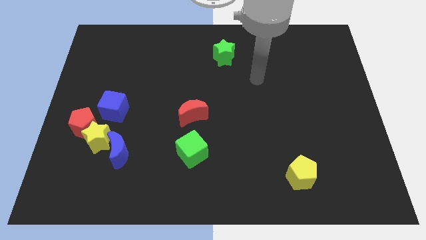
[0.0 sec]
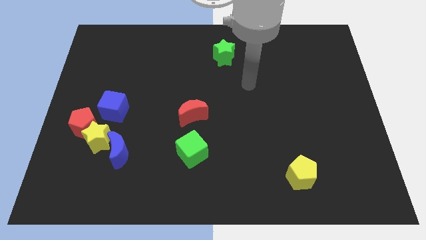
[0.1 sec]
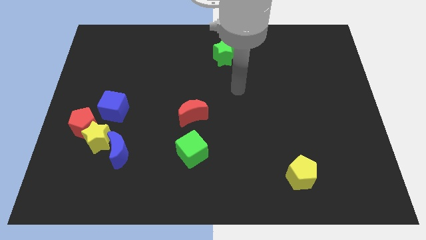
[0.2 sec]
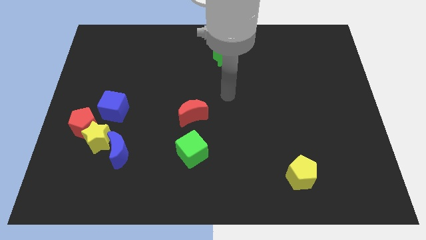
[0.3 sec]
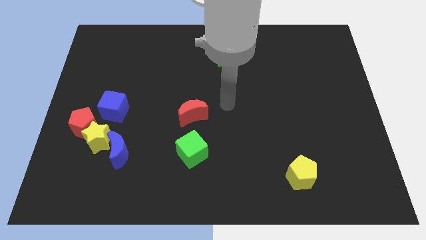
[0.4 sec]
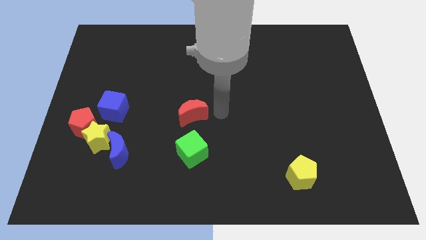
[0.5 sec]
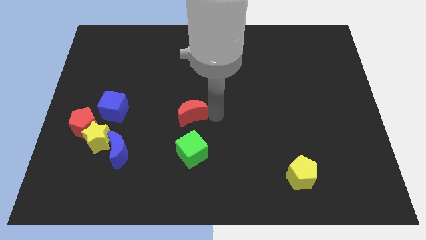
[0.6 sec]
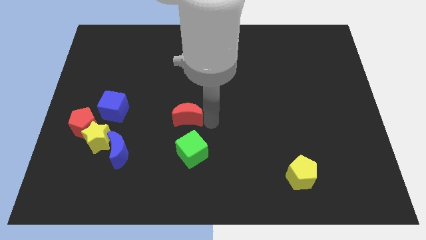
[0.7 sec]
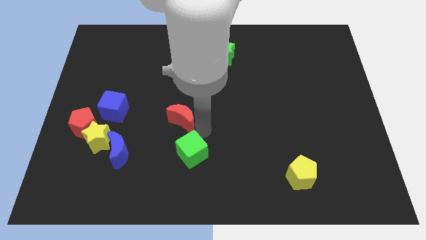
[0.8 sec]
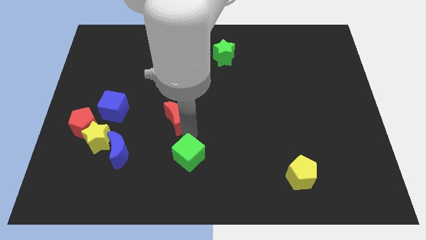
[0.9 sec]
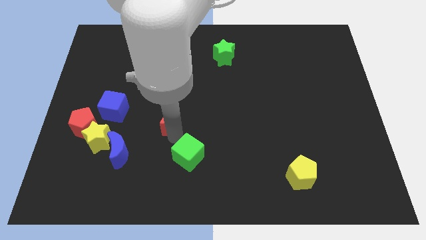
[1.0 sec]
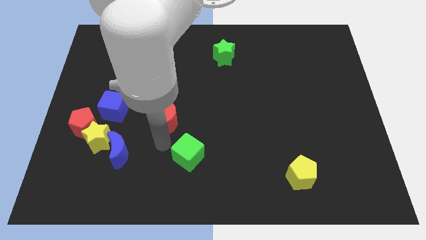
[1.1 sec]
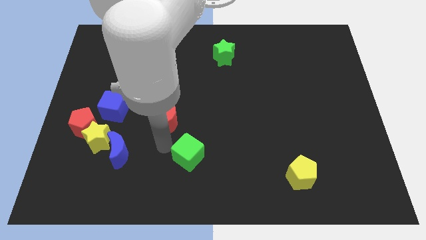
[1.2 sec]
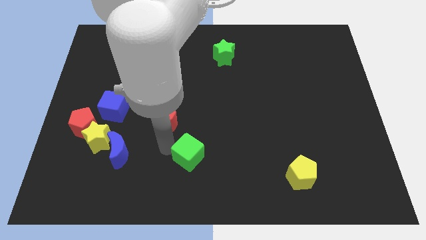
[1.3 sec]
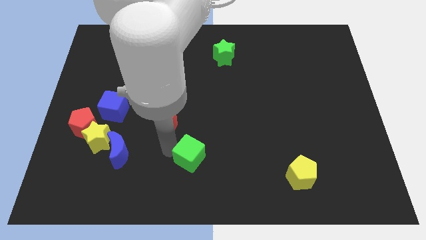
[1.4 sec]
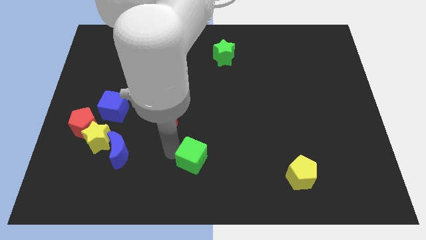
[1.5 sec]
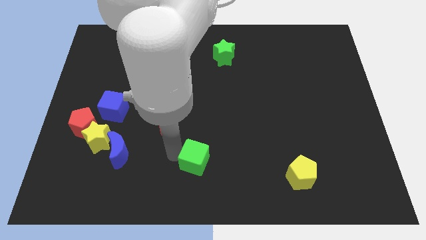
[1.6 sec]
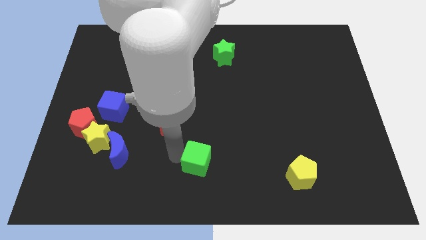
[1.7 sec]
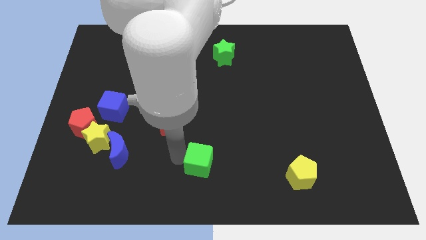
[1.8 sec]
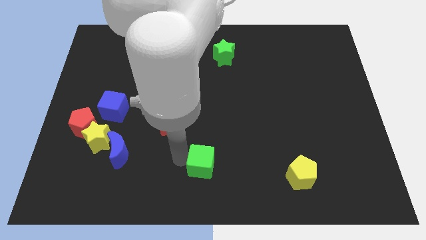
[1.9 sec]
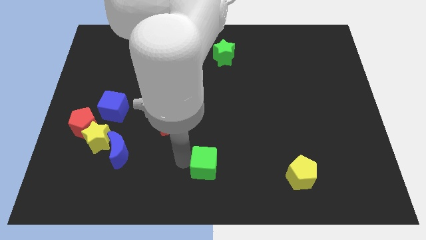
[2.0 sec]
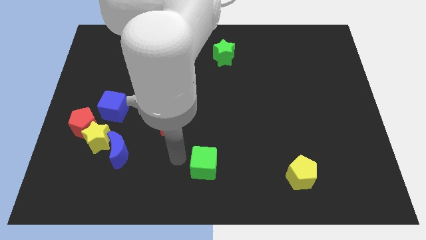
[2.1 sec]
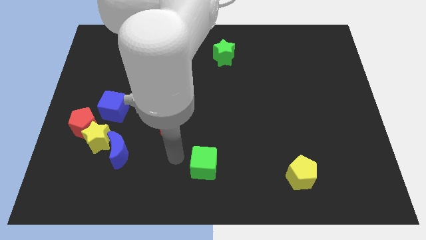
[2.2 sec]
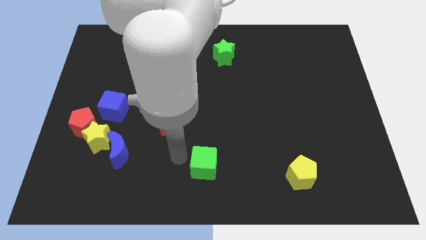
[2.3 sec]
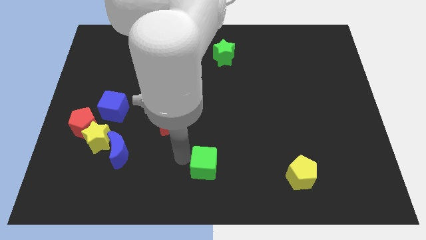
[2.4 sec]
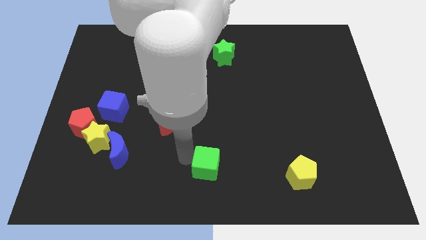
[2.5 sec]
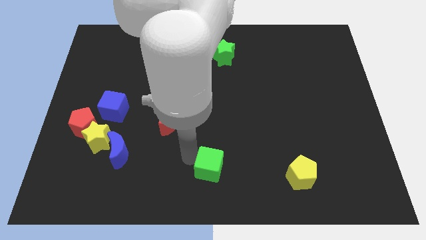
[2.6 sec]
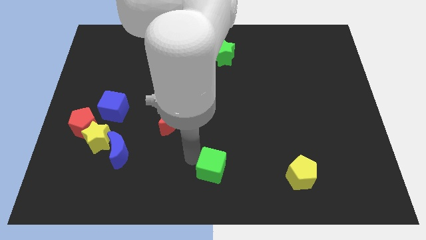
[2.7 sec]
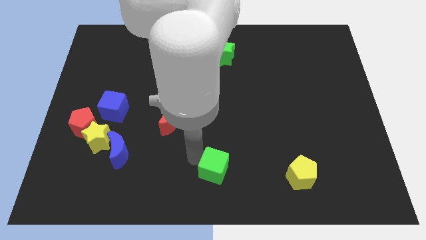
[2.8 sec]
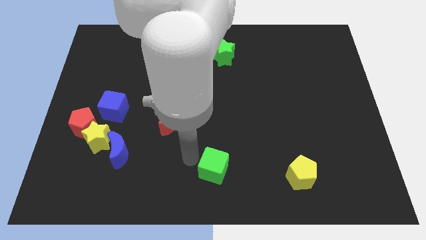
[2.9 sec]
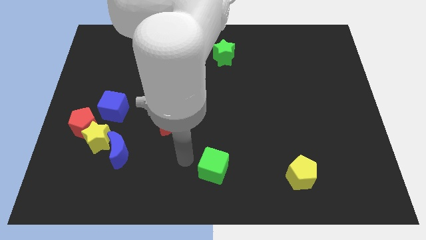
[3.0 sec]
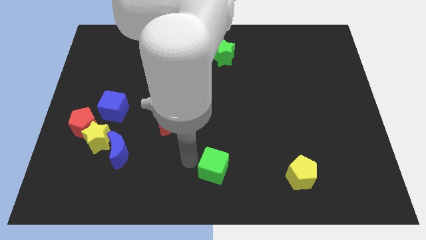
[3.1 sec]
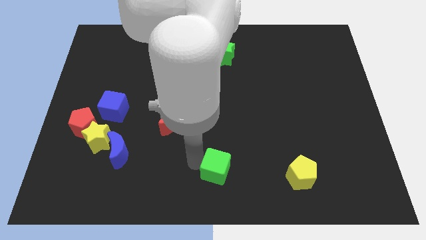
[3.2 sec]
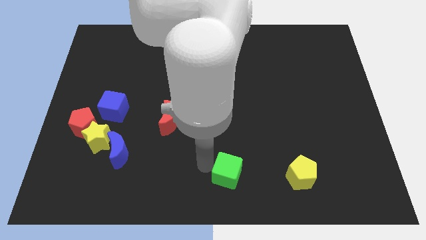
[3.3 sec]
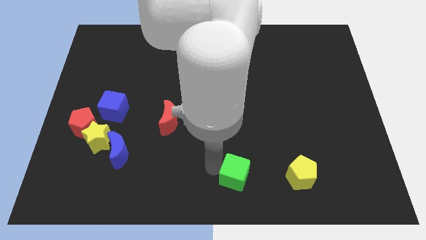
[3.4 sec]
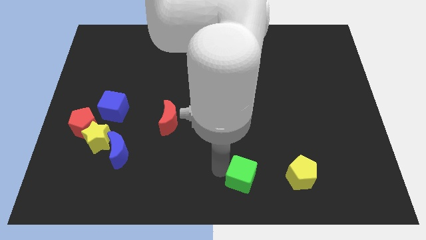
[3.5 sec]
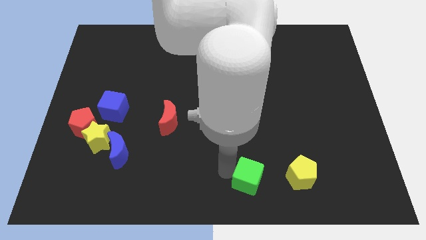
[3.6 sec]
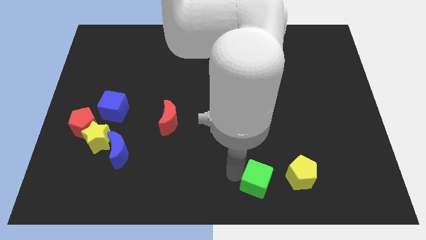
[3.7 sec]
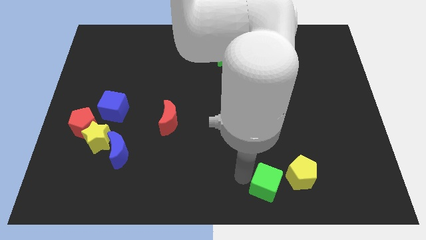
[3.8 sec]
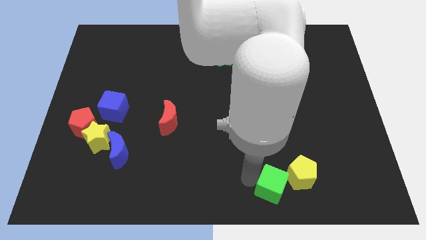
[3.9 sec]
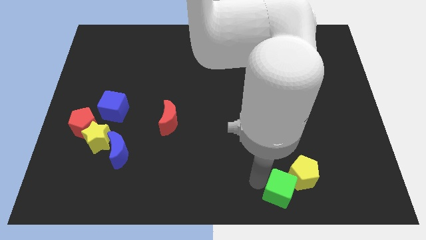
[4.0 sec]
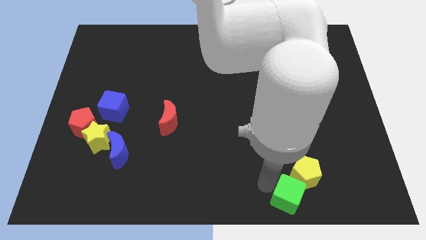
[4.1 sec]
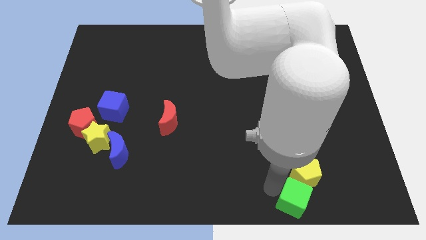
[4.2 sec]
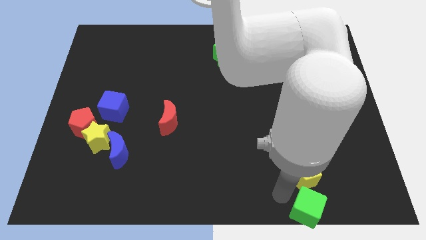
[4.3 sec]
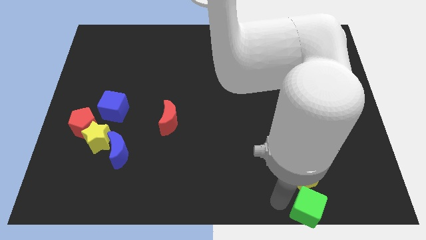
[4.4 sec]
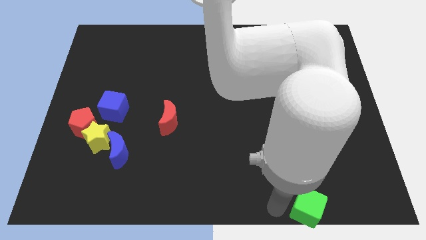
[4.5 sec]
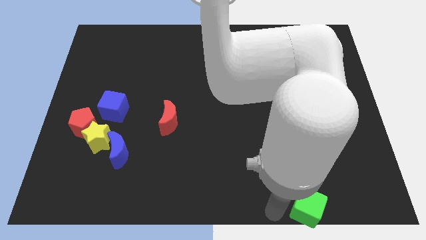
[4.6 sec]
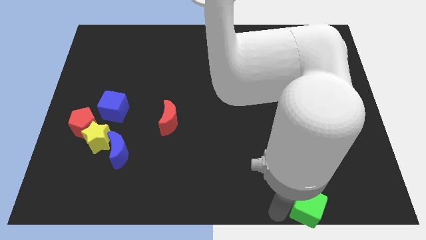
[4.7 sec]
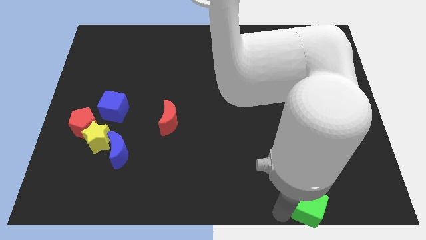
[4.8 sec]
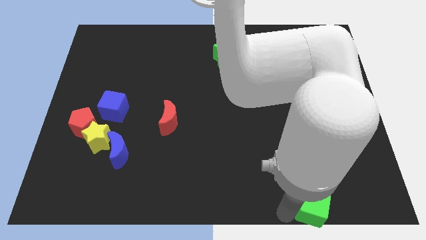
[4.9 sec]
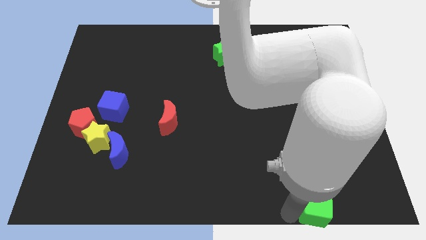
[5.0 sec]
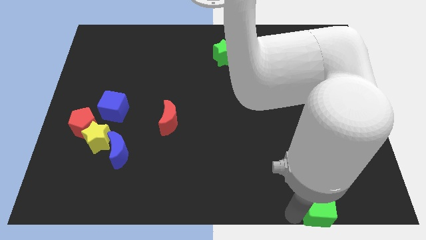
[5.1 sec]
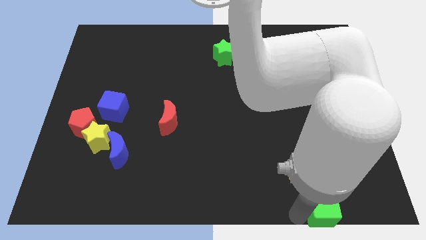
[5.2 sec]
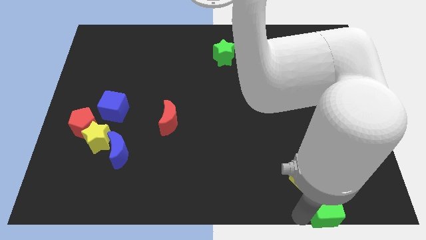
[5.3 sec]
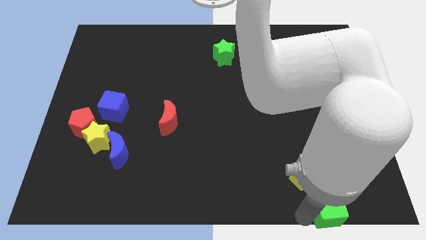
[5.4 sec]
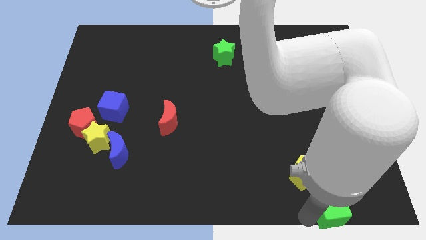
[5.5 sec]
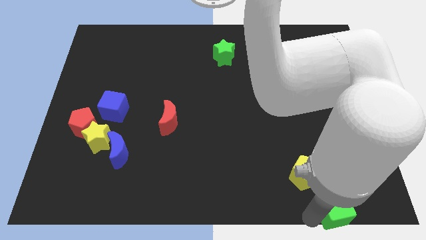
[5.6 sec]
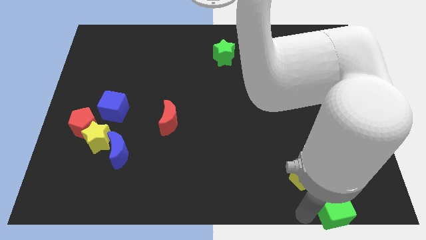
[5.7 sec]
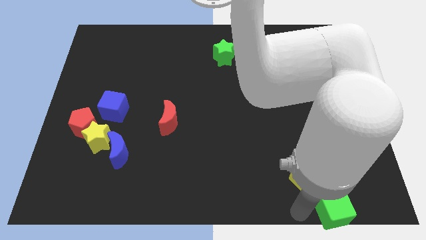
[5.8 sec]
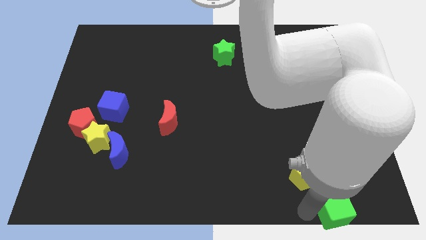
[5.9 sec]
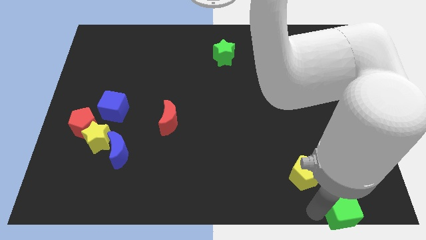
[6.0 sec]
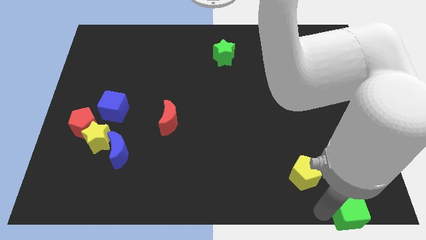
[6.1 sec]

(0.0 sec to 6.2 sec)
push the green cube to the bottom right

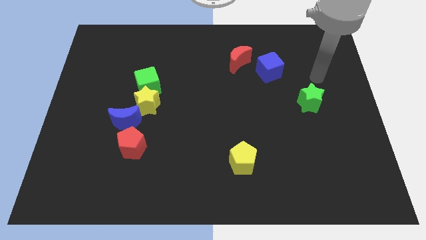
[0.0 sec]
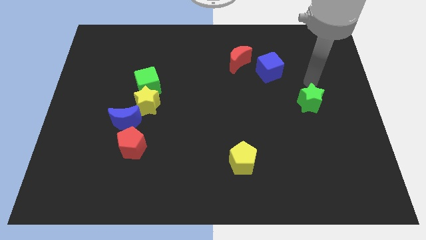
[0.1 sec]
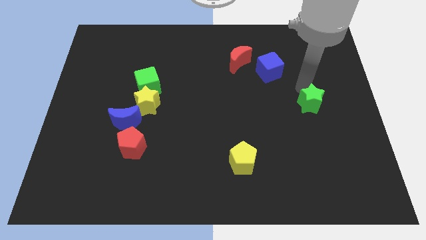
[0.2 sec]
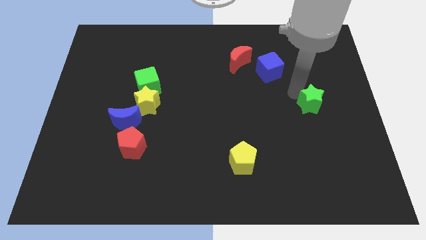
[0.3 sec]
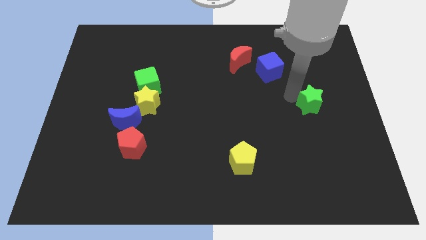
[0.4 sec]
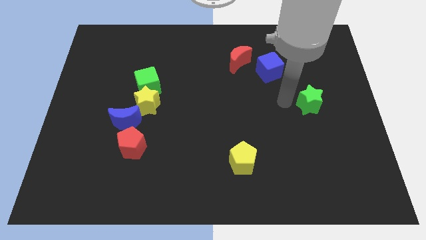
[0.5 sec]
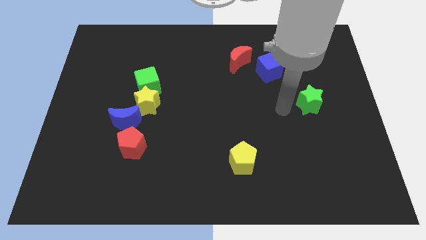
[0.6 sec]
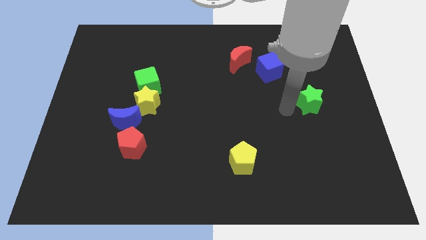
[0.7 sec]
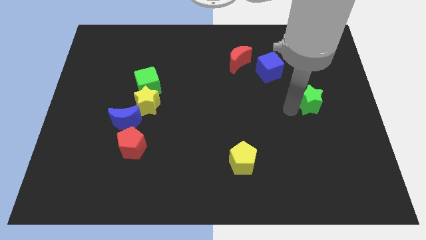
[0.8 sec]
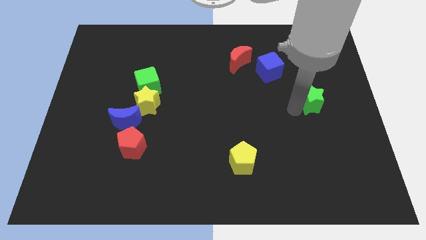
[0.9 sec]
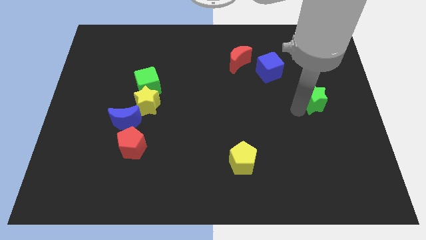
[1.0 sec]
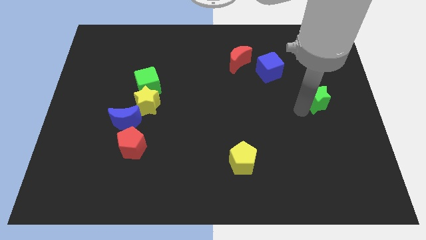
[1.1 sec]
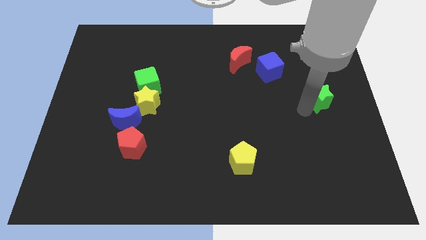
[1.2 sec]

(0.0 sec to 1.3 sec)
move the green star to the right side
